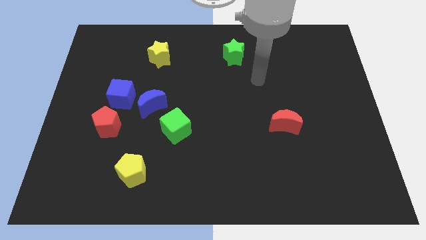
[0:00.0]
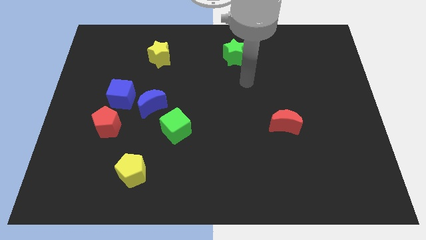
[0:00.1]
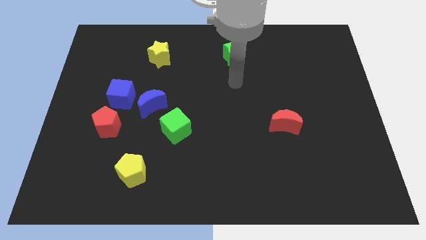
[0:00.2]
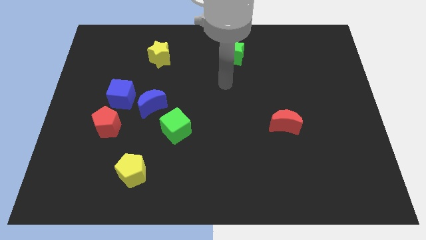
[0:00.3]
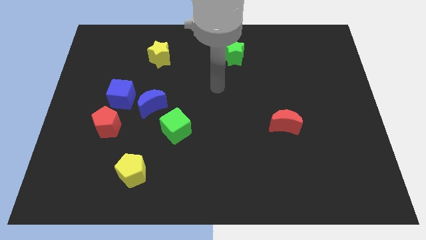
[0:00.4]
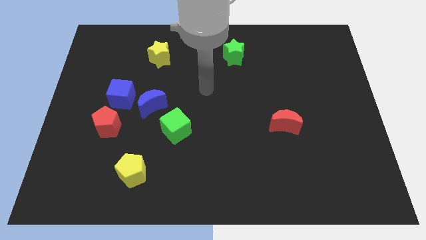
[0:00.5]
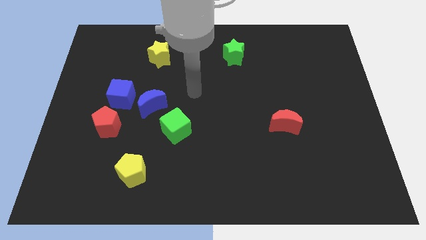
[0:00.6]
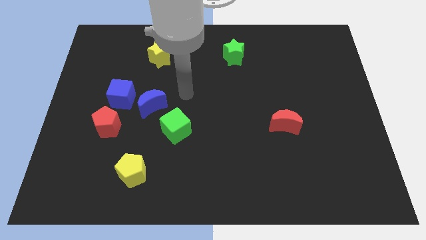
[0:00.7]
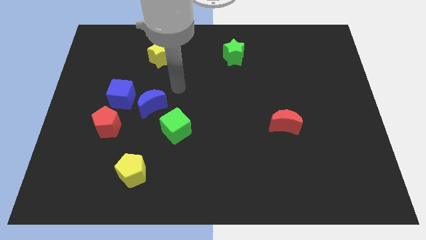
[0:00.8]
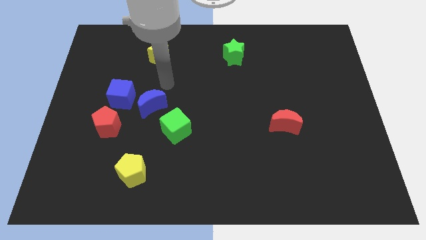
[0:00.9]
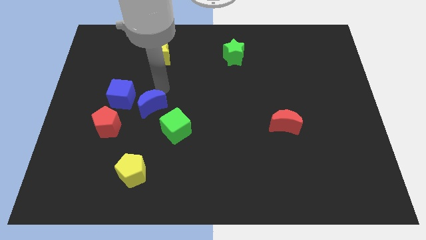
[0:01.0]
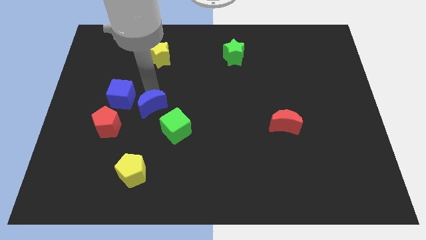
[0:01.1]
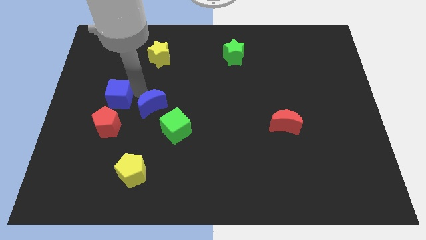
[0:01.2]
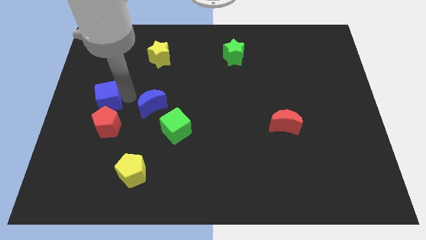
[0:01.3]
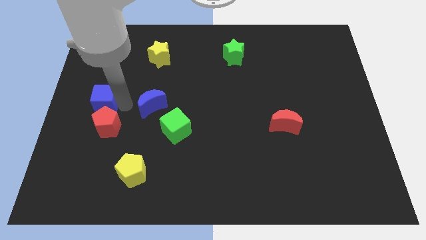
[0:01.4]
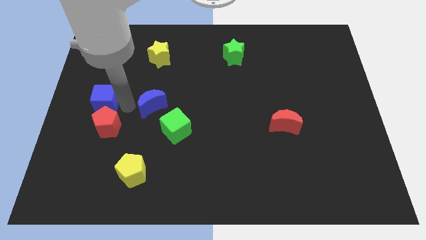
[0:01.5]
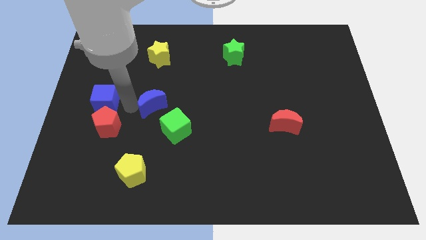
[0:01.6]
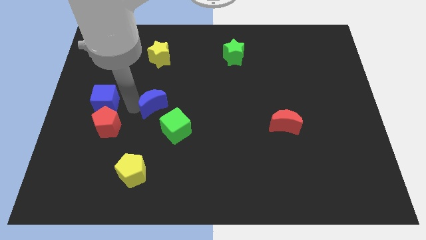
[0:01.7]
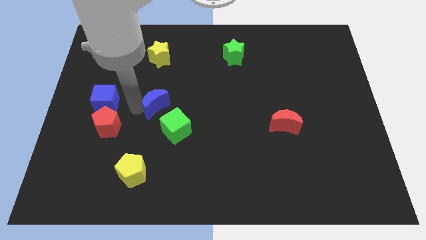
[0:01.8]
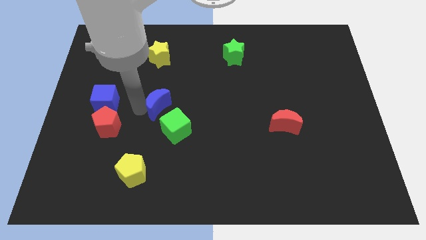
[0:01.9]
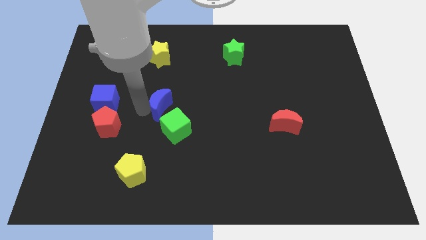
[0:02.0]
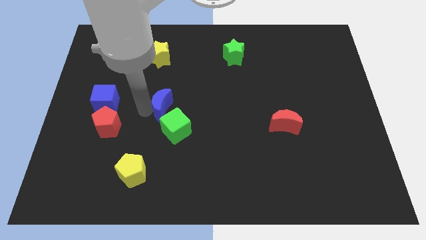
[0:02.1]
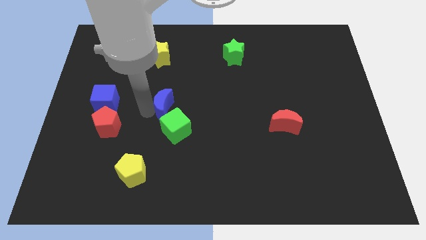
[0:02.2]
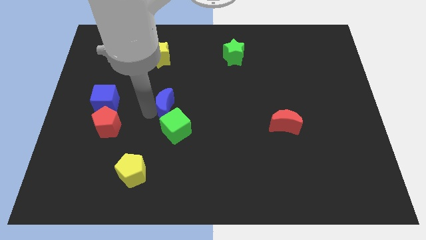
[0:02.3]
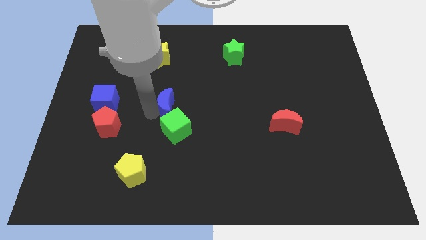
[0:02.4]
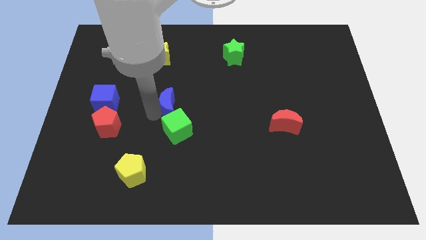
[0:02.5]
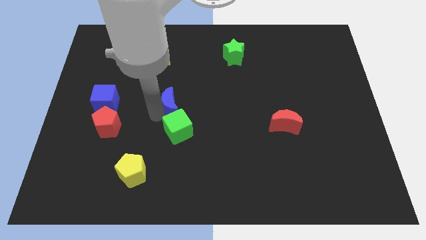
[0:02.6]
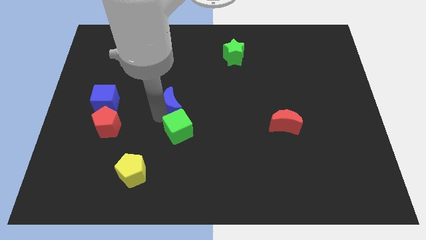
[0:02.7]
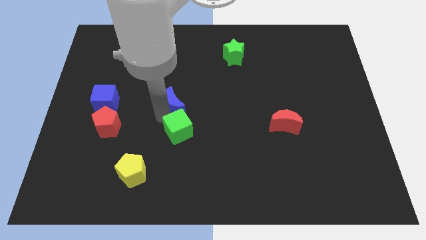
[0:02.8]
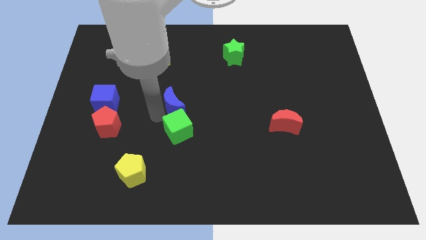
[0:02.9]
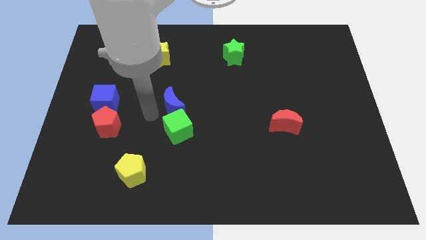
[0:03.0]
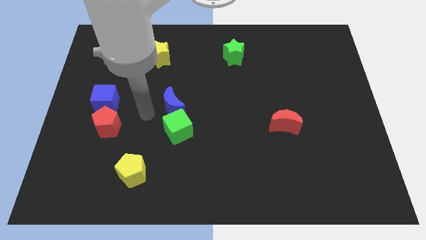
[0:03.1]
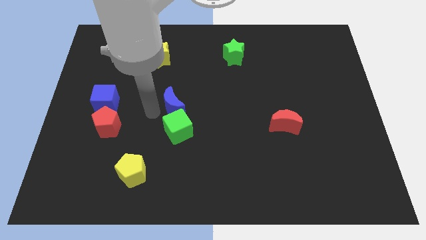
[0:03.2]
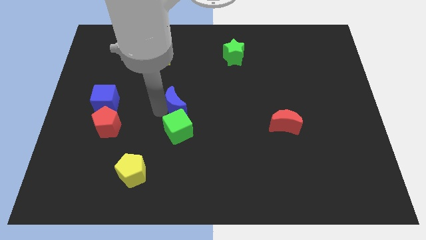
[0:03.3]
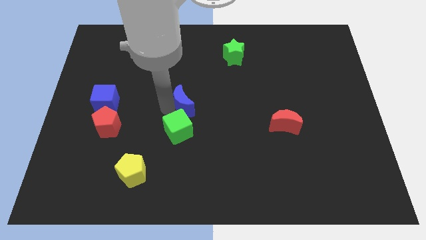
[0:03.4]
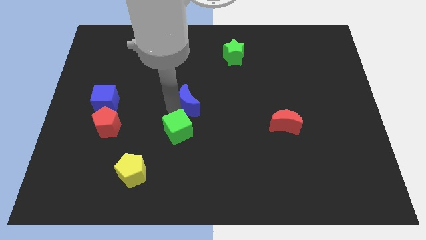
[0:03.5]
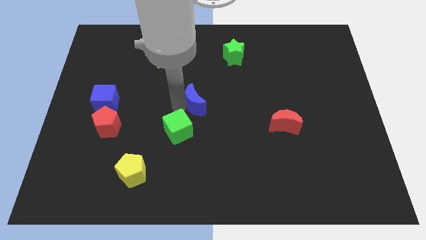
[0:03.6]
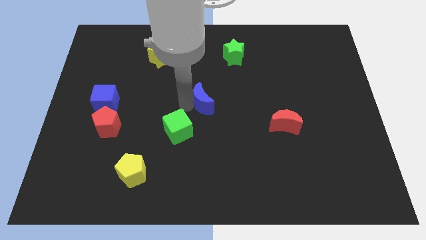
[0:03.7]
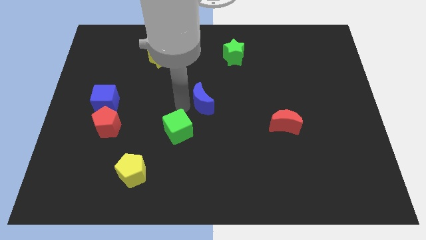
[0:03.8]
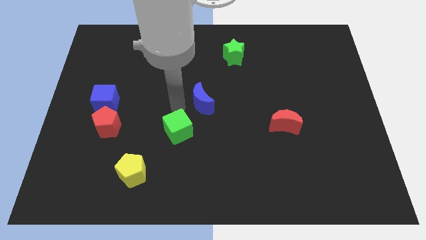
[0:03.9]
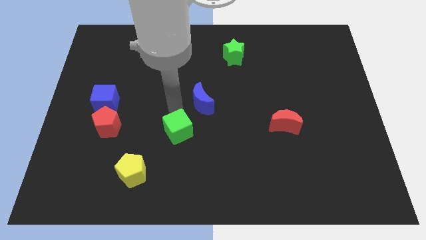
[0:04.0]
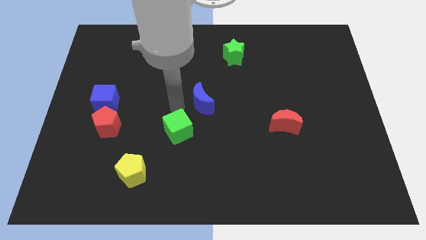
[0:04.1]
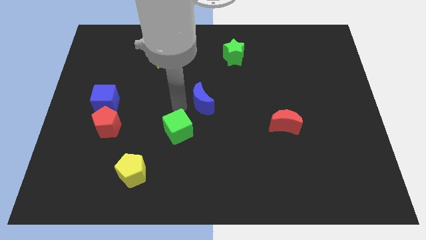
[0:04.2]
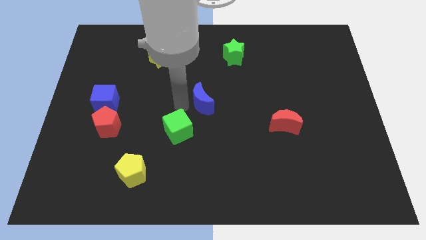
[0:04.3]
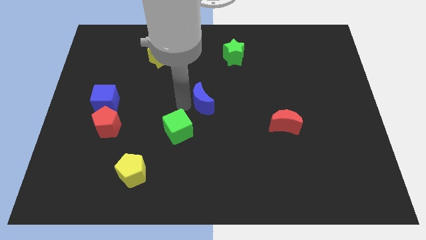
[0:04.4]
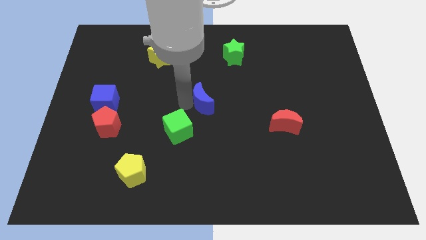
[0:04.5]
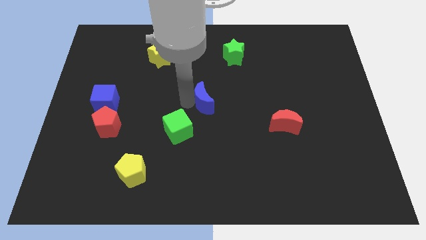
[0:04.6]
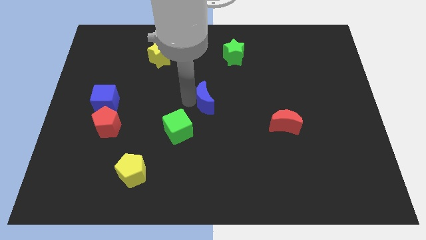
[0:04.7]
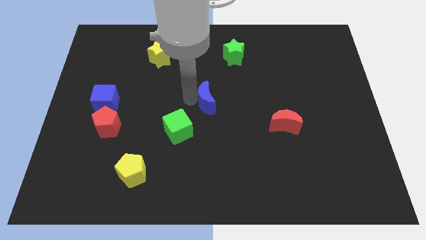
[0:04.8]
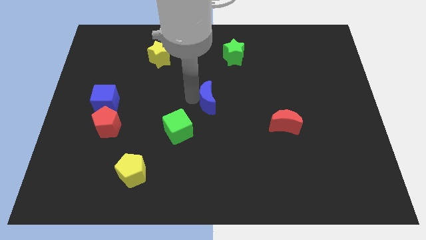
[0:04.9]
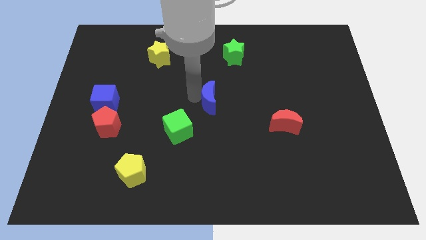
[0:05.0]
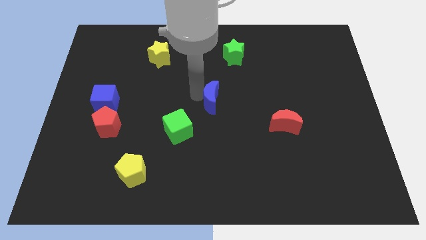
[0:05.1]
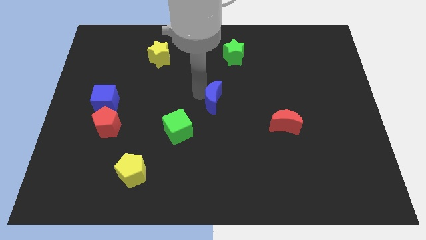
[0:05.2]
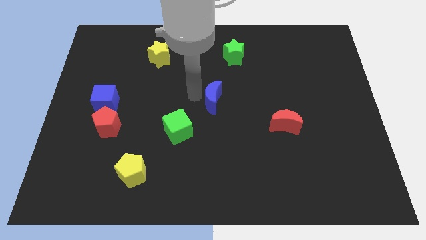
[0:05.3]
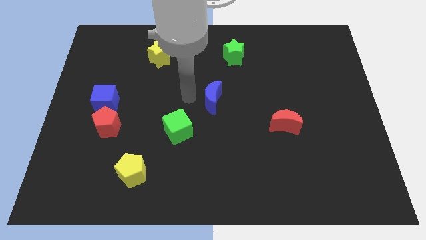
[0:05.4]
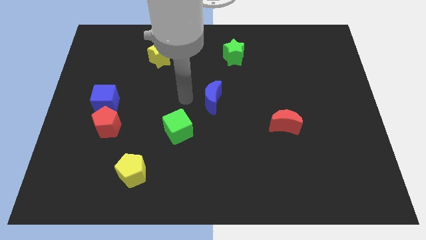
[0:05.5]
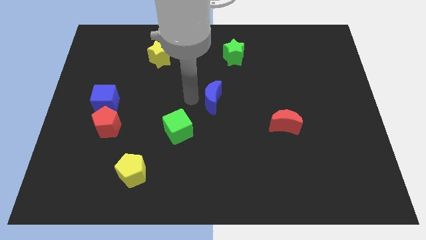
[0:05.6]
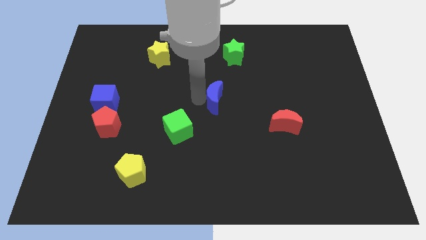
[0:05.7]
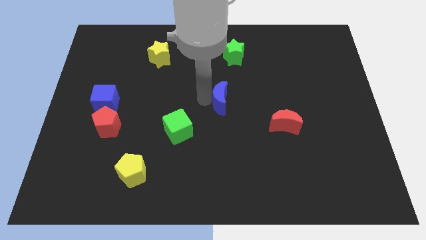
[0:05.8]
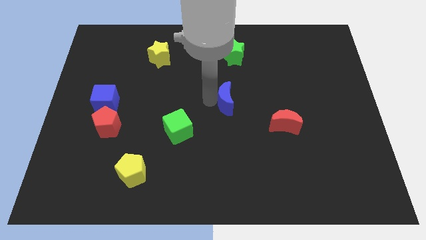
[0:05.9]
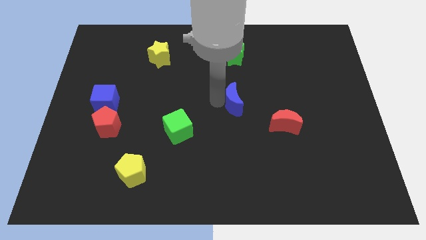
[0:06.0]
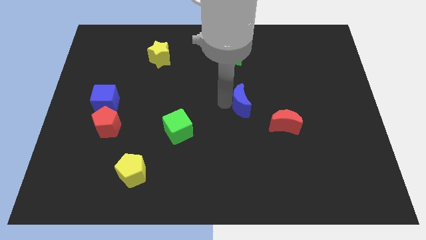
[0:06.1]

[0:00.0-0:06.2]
move the blue moon right

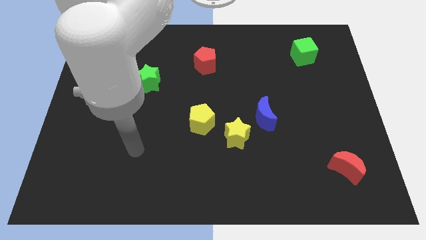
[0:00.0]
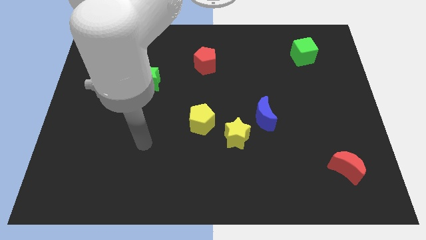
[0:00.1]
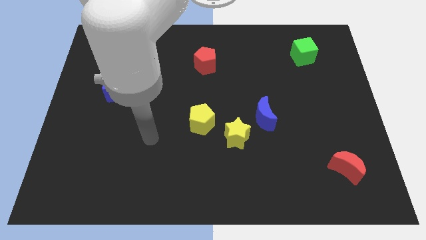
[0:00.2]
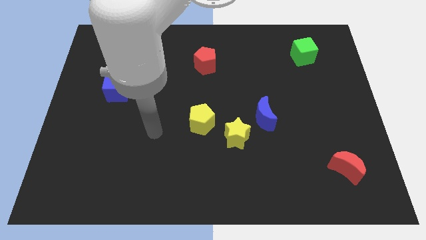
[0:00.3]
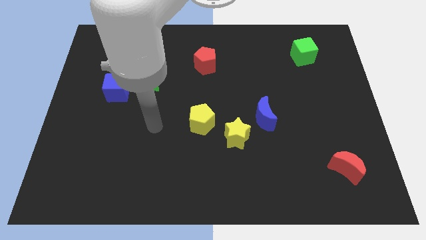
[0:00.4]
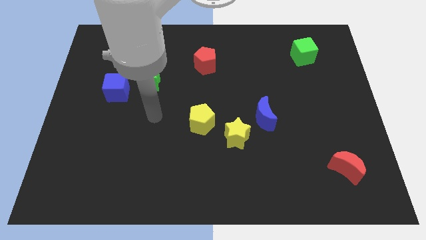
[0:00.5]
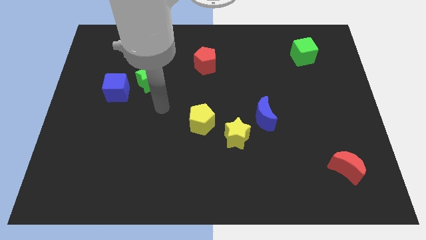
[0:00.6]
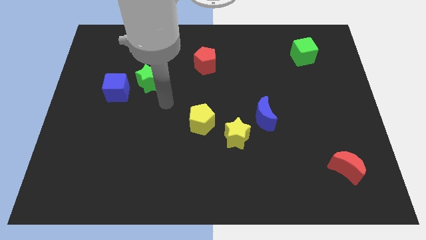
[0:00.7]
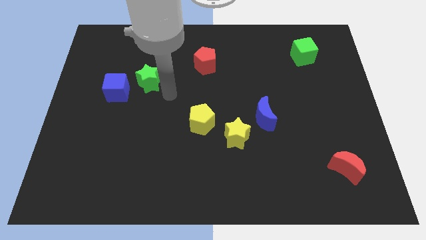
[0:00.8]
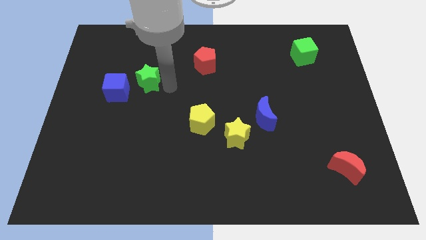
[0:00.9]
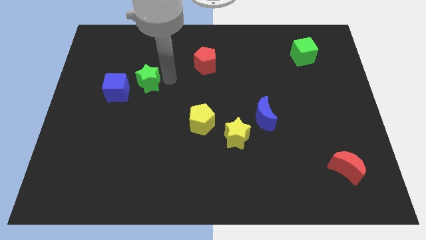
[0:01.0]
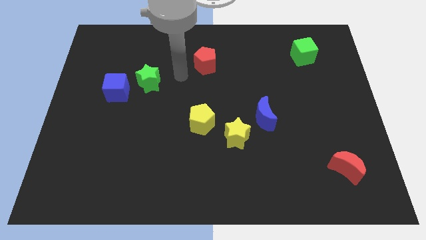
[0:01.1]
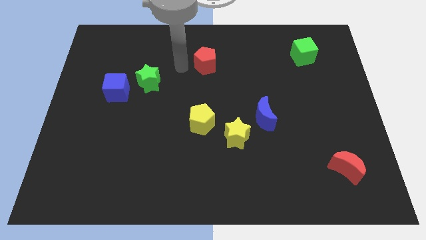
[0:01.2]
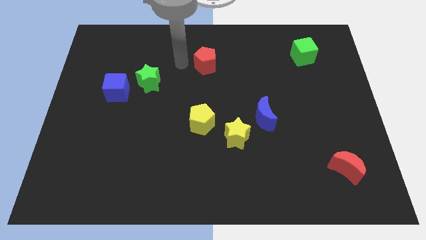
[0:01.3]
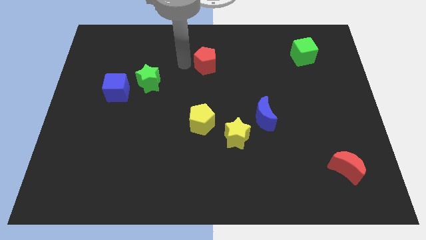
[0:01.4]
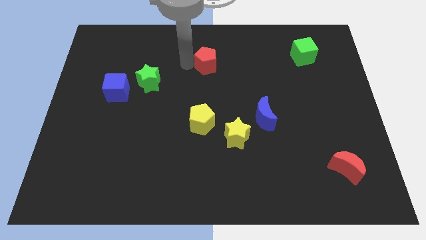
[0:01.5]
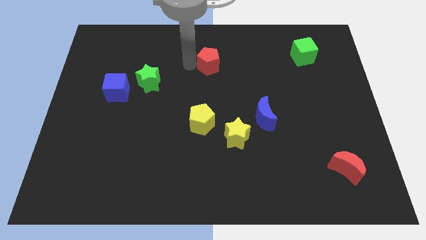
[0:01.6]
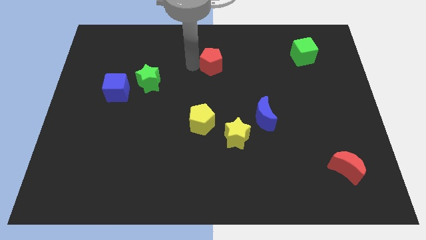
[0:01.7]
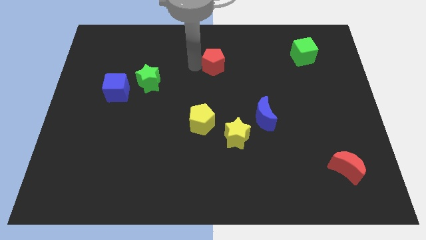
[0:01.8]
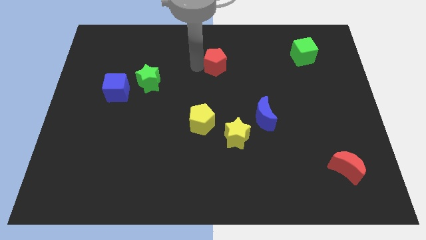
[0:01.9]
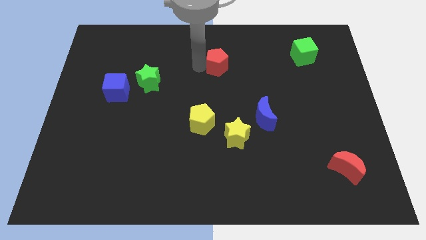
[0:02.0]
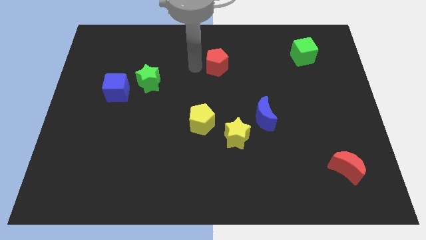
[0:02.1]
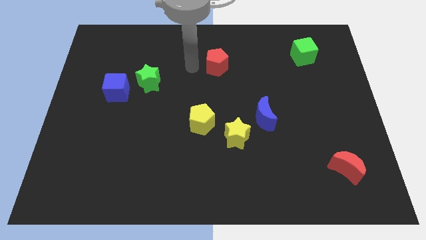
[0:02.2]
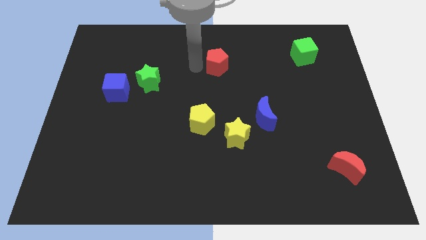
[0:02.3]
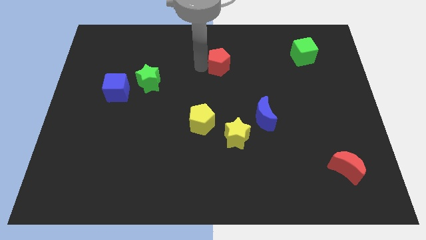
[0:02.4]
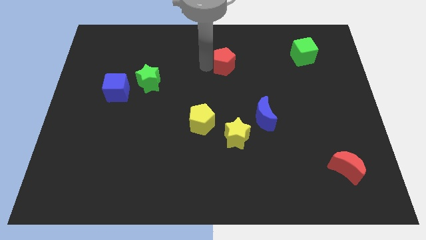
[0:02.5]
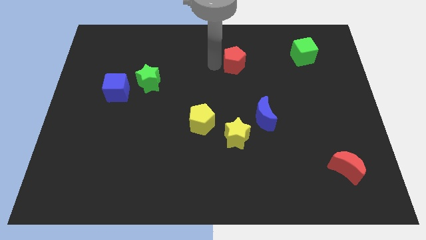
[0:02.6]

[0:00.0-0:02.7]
slide the red pentagon to the right a bit
